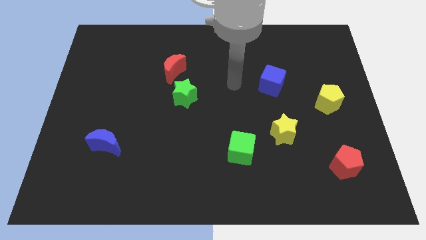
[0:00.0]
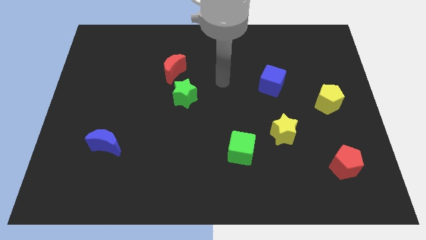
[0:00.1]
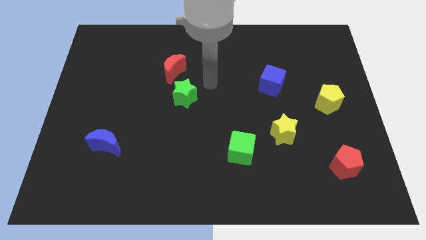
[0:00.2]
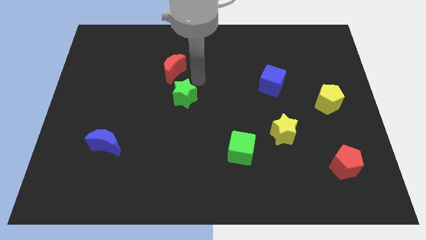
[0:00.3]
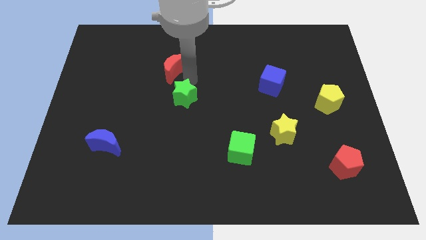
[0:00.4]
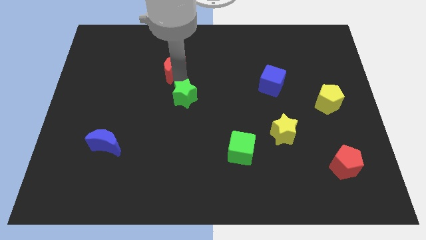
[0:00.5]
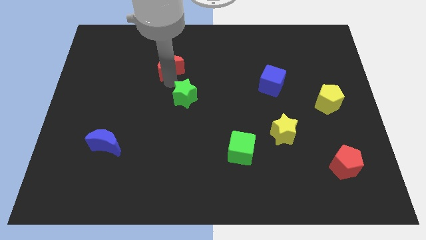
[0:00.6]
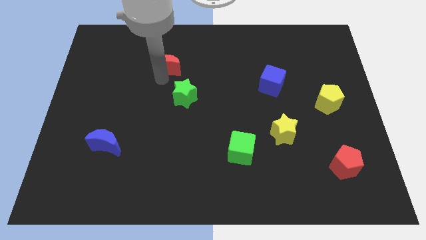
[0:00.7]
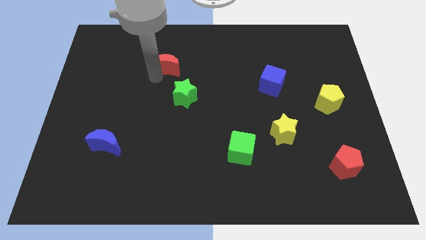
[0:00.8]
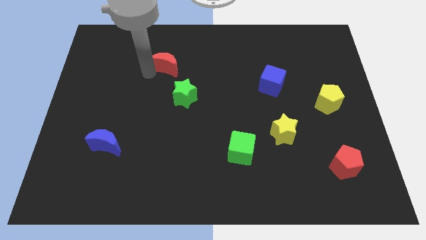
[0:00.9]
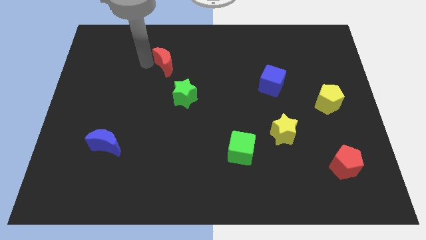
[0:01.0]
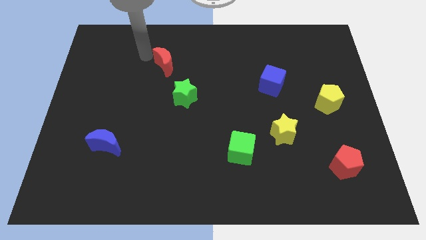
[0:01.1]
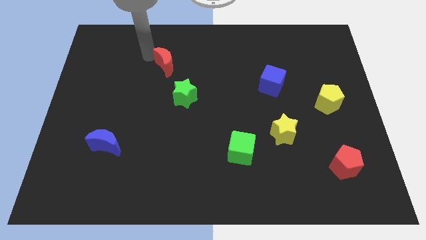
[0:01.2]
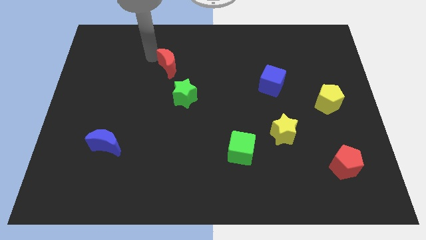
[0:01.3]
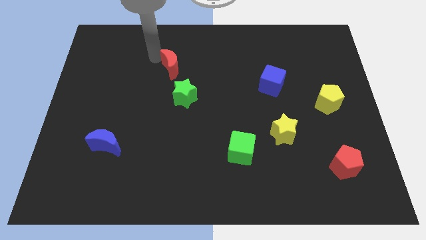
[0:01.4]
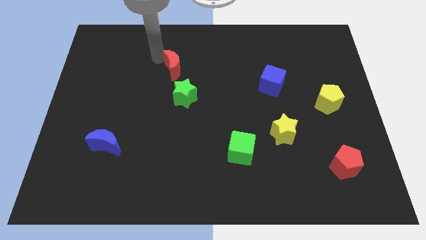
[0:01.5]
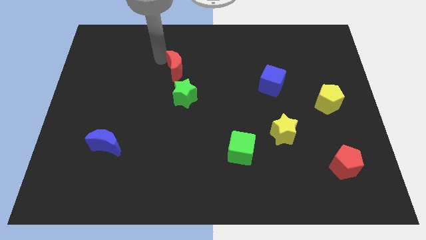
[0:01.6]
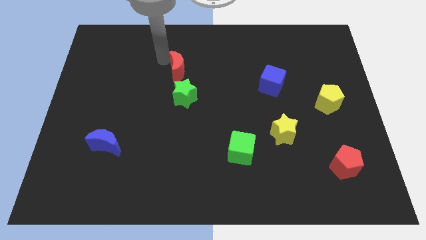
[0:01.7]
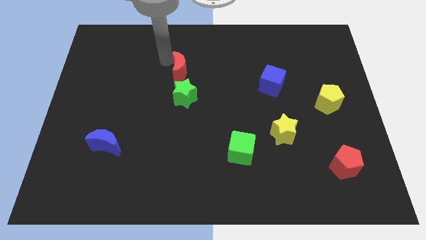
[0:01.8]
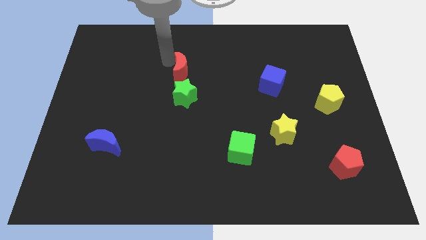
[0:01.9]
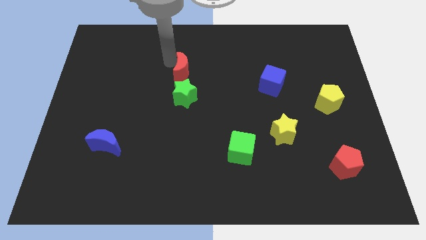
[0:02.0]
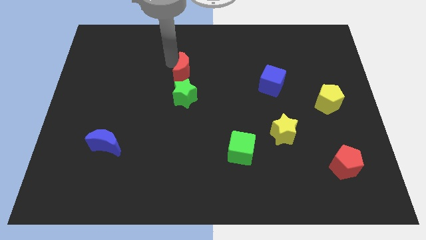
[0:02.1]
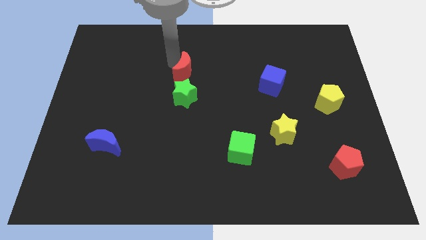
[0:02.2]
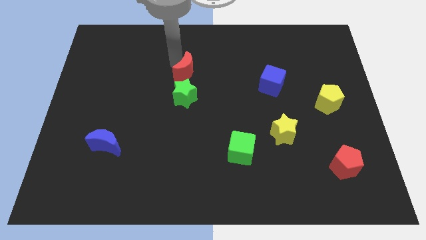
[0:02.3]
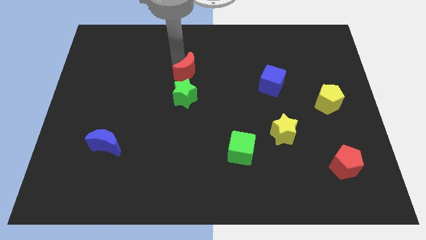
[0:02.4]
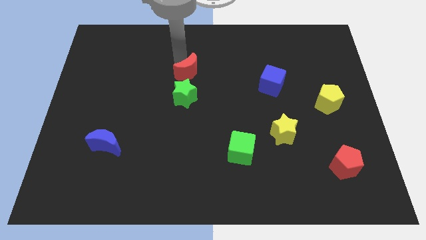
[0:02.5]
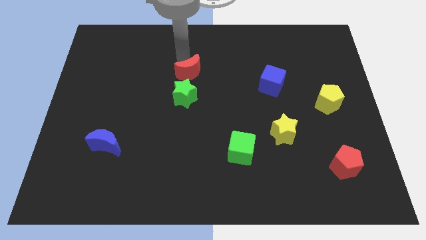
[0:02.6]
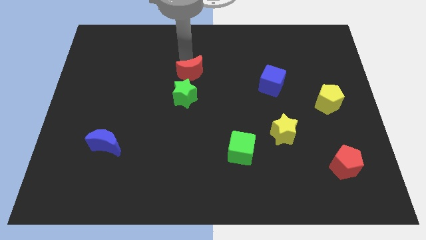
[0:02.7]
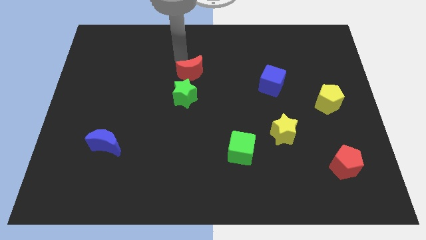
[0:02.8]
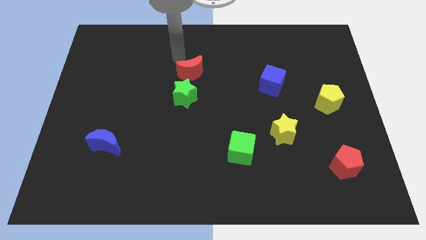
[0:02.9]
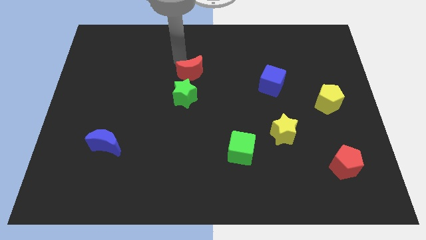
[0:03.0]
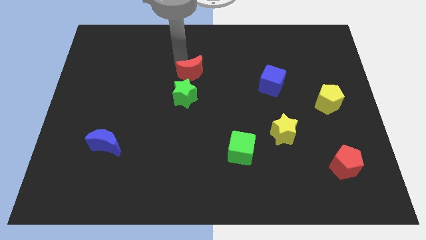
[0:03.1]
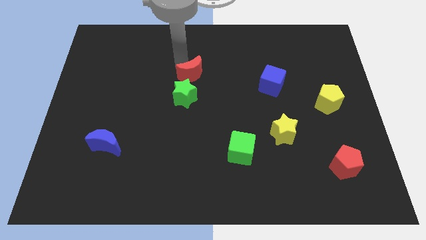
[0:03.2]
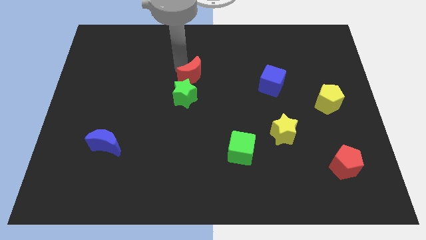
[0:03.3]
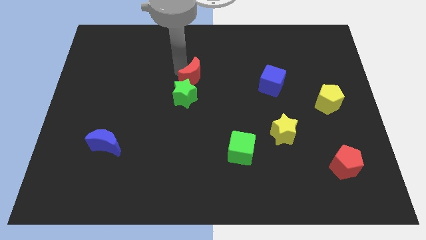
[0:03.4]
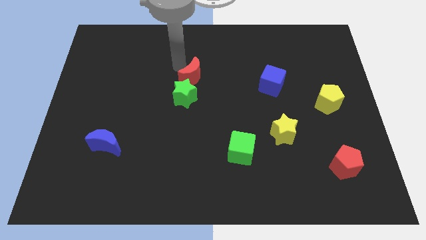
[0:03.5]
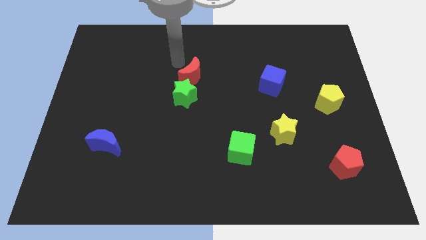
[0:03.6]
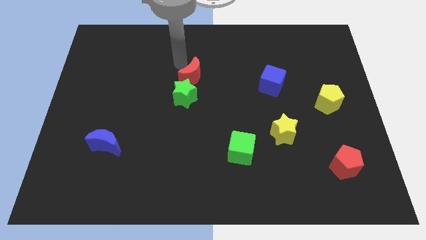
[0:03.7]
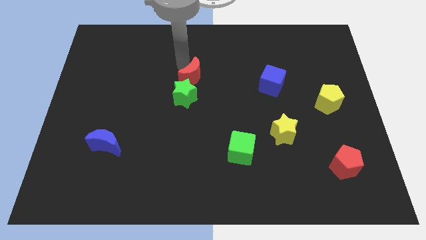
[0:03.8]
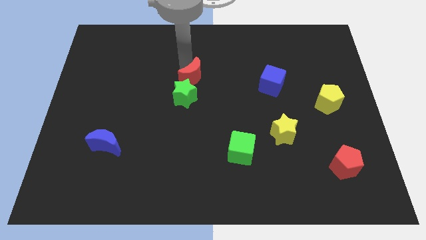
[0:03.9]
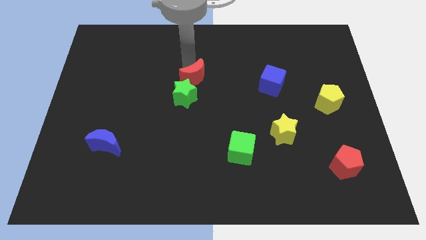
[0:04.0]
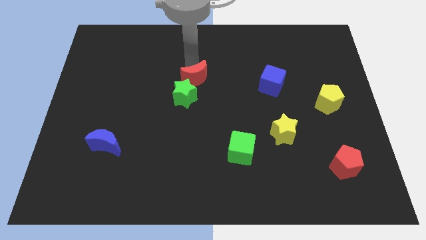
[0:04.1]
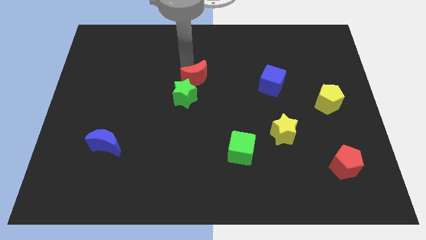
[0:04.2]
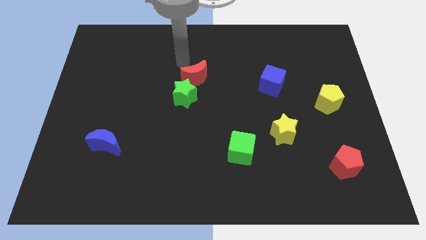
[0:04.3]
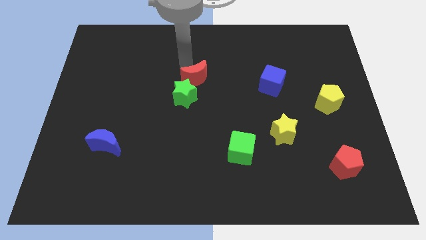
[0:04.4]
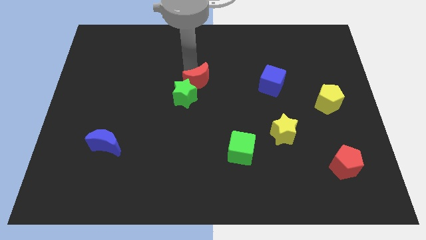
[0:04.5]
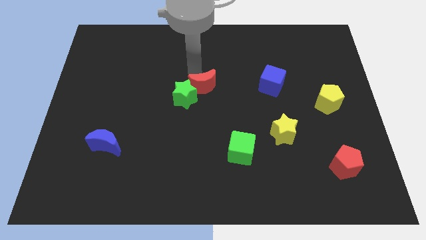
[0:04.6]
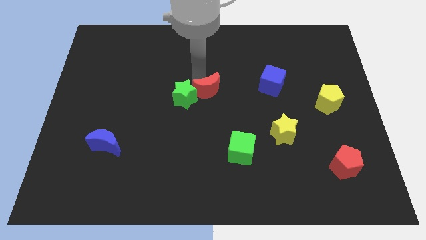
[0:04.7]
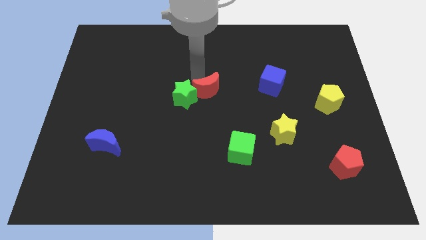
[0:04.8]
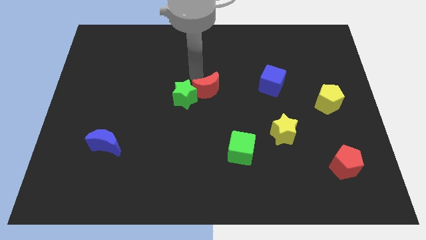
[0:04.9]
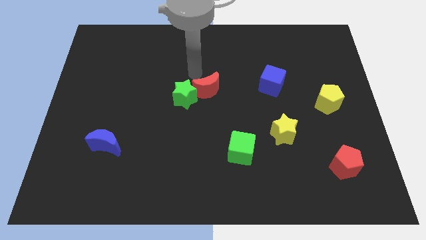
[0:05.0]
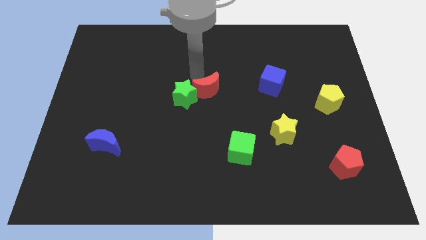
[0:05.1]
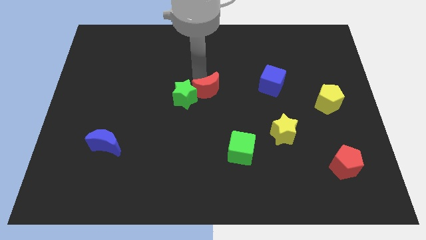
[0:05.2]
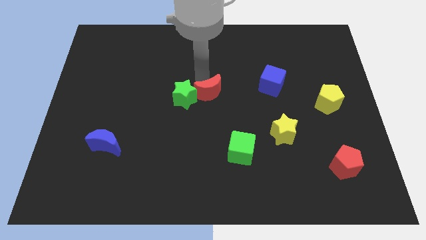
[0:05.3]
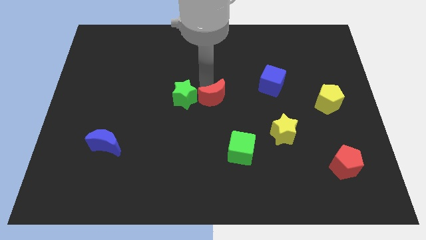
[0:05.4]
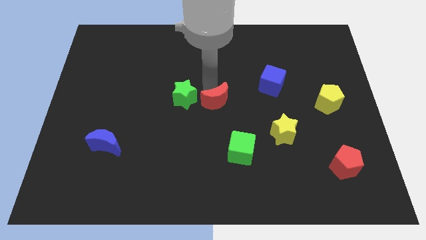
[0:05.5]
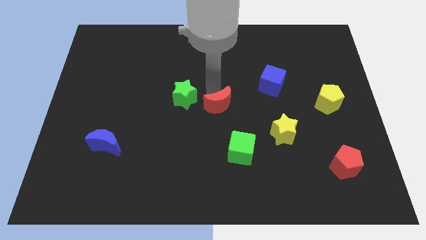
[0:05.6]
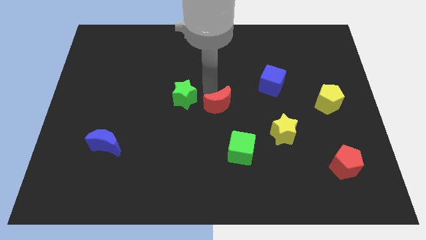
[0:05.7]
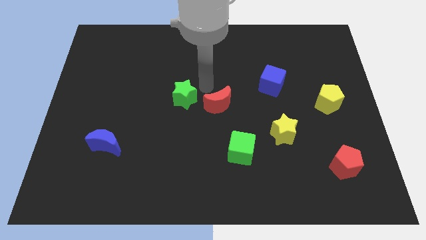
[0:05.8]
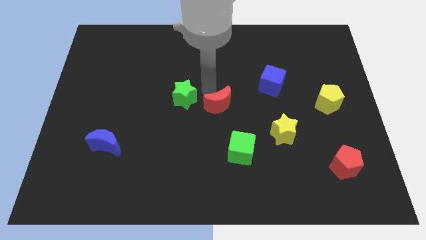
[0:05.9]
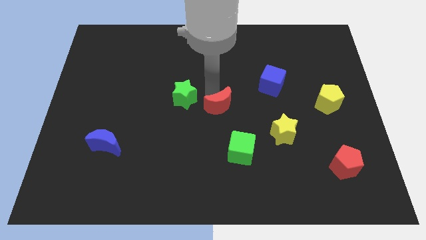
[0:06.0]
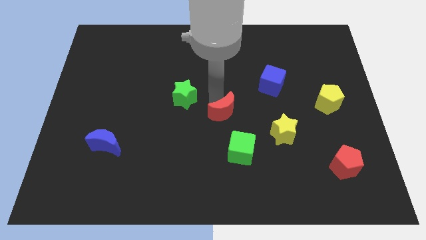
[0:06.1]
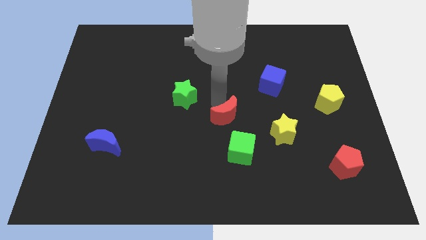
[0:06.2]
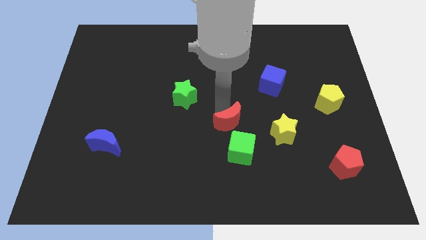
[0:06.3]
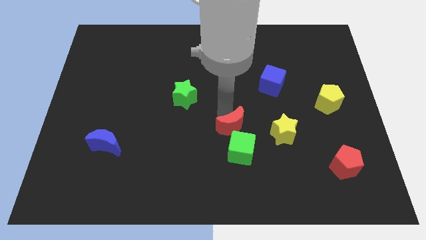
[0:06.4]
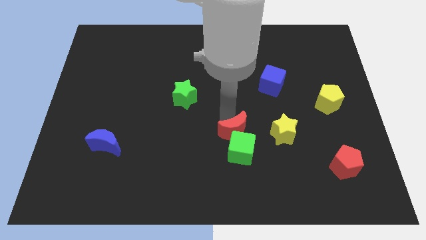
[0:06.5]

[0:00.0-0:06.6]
slide the red moon next to the green cube
